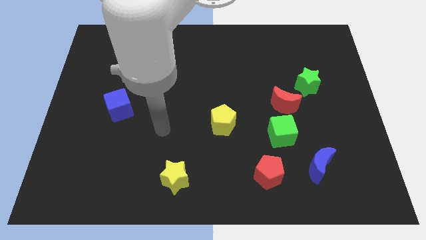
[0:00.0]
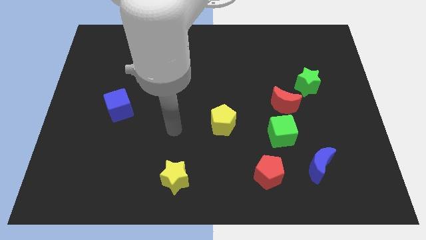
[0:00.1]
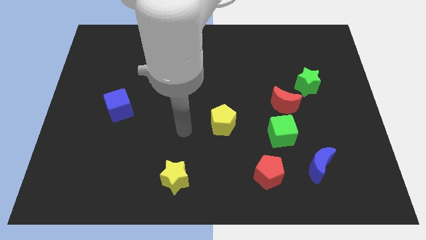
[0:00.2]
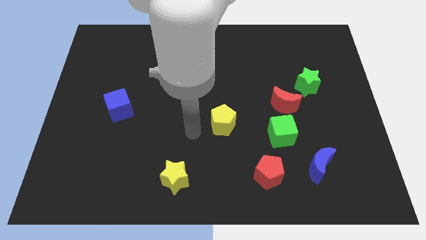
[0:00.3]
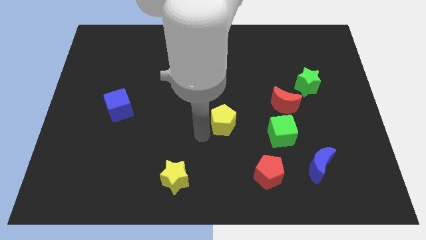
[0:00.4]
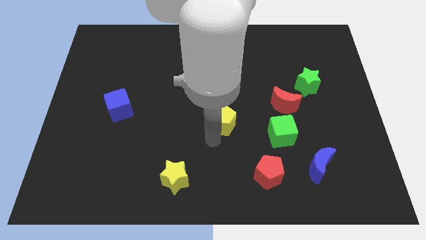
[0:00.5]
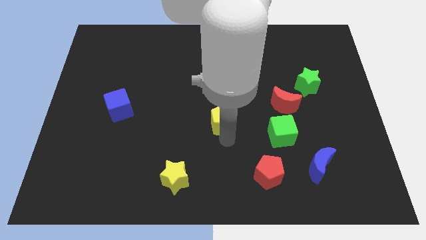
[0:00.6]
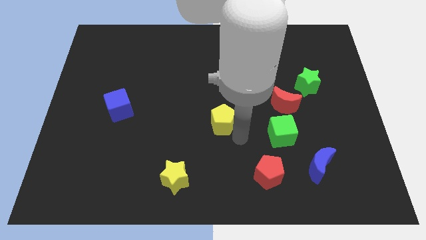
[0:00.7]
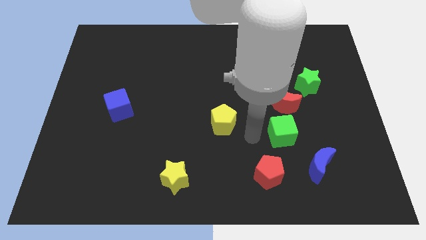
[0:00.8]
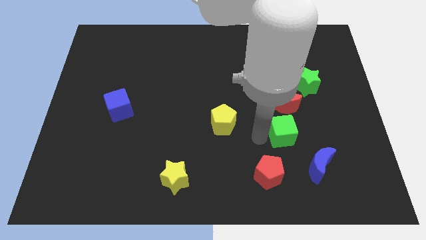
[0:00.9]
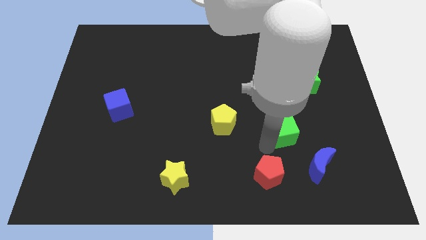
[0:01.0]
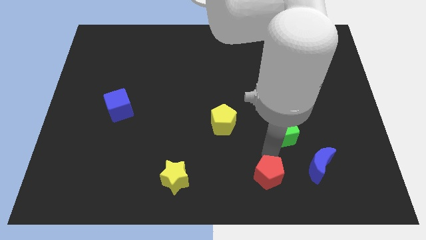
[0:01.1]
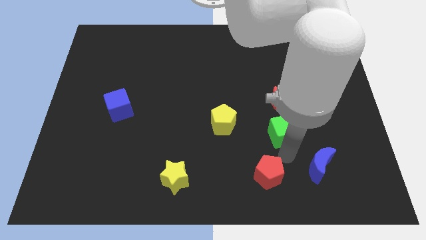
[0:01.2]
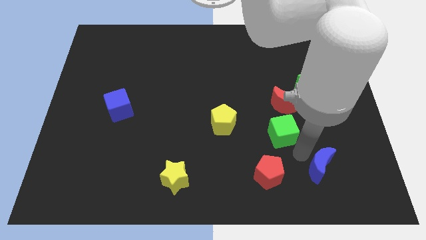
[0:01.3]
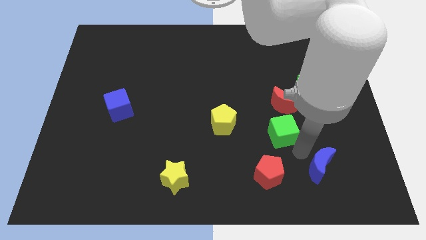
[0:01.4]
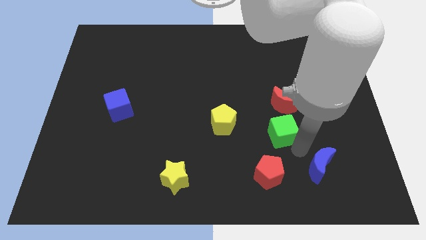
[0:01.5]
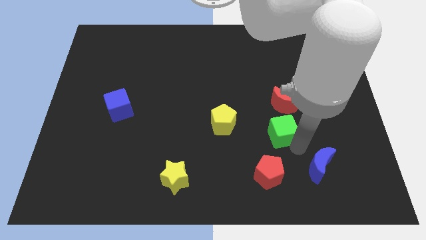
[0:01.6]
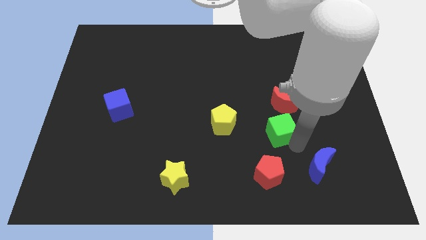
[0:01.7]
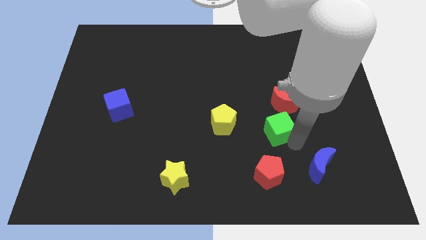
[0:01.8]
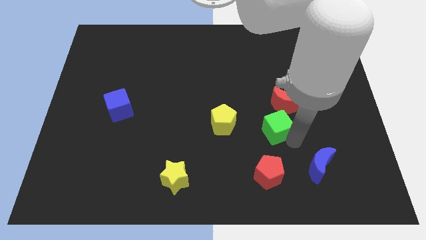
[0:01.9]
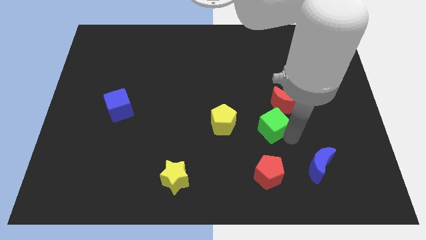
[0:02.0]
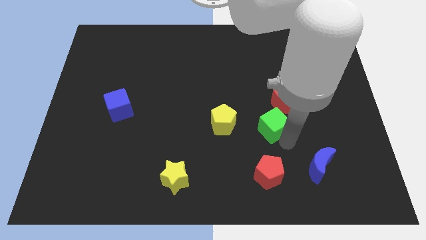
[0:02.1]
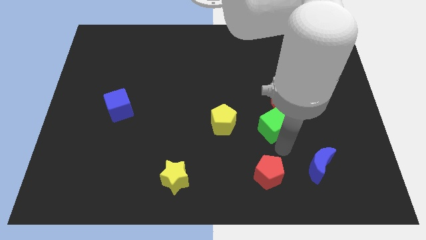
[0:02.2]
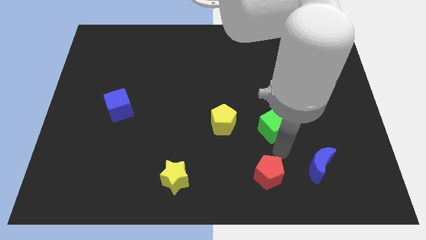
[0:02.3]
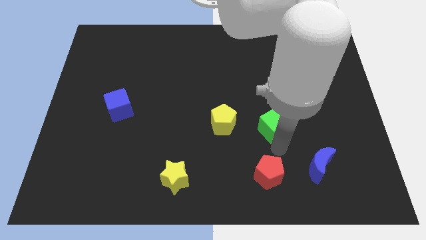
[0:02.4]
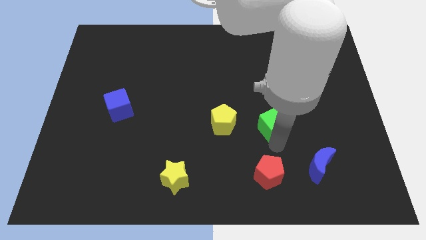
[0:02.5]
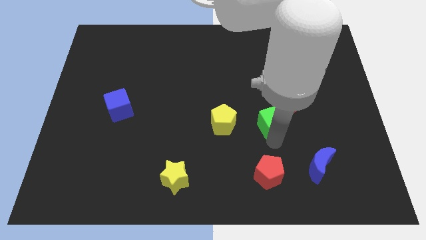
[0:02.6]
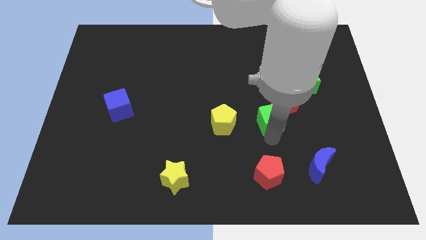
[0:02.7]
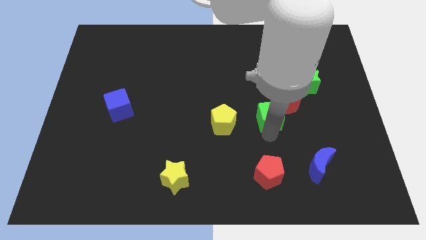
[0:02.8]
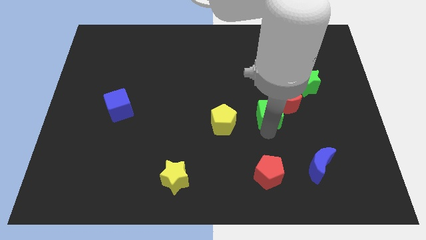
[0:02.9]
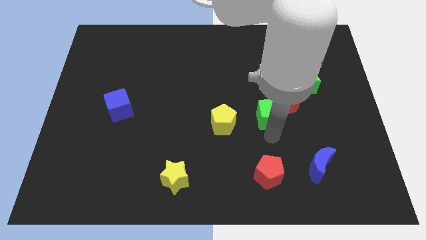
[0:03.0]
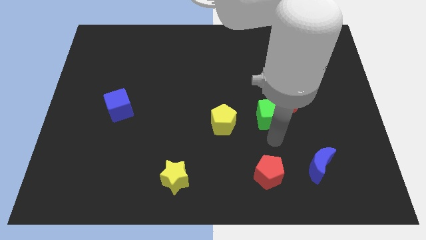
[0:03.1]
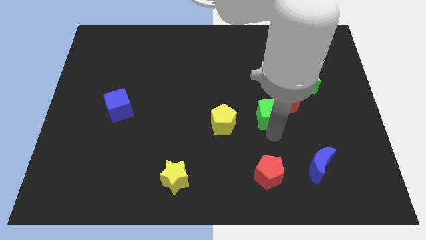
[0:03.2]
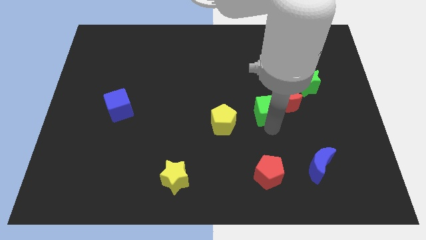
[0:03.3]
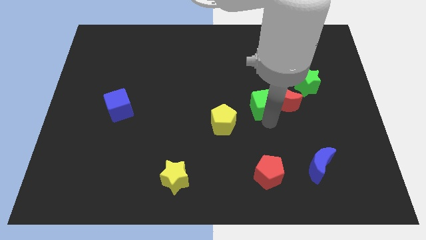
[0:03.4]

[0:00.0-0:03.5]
slightly push the green cube upwards

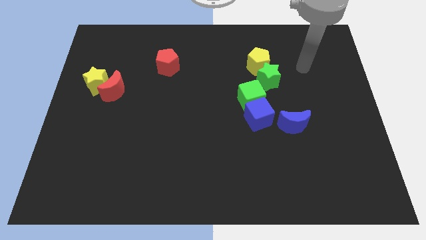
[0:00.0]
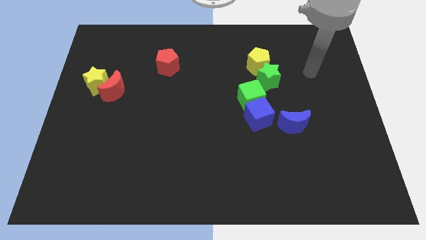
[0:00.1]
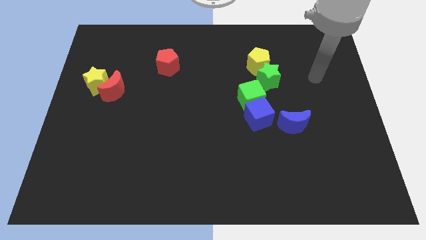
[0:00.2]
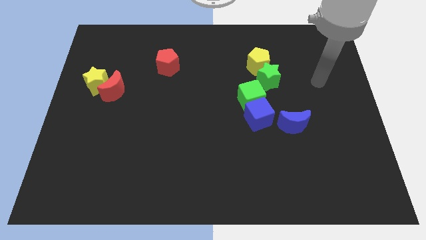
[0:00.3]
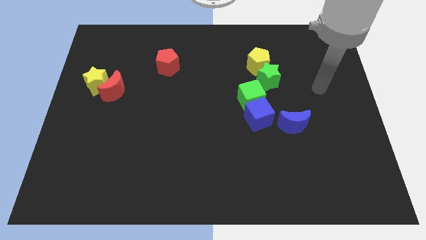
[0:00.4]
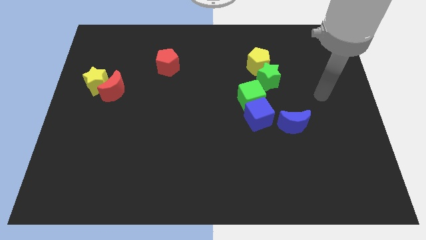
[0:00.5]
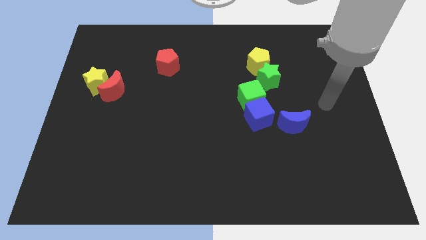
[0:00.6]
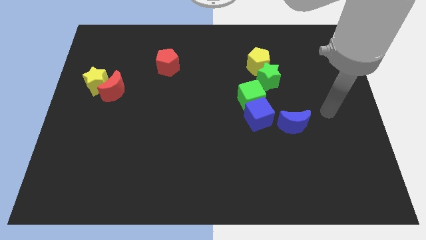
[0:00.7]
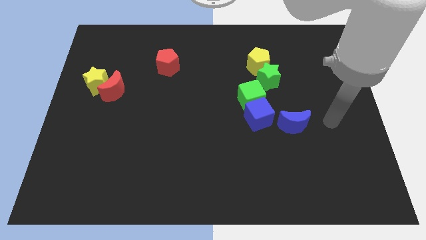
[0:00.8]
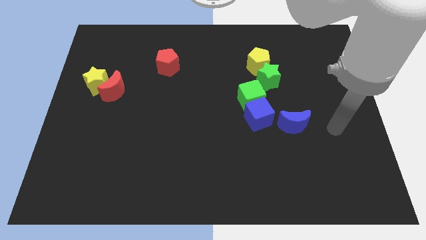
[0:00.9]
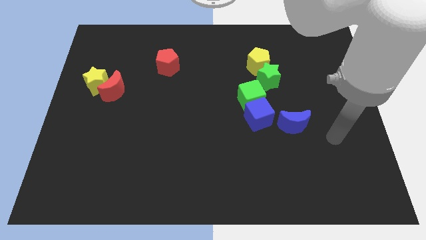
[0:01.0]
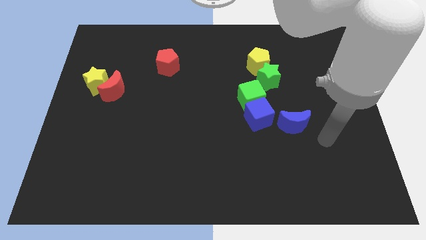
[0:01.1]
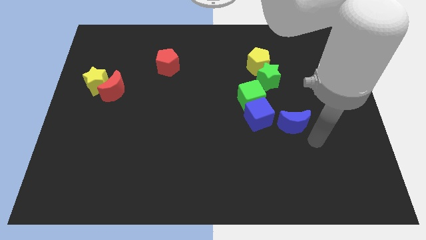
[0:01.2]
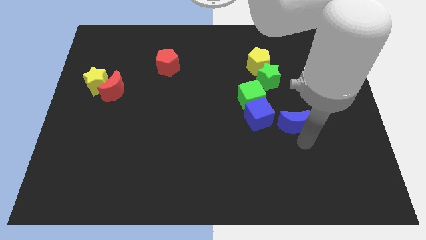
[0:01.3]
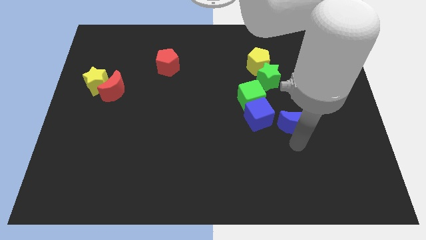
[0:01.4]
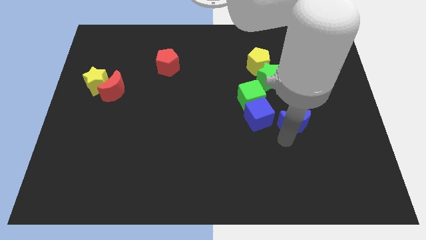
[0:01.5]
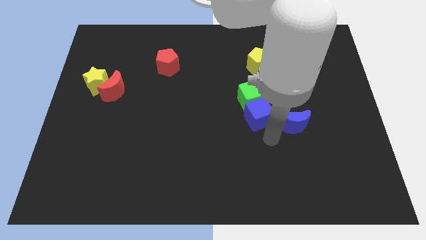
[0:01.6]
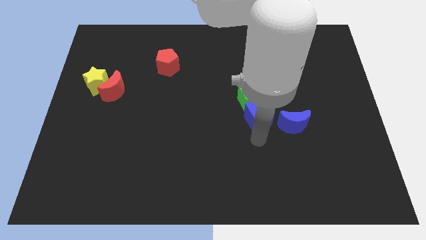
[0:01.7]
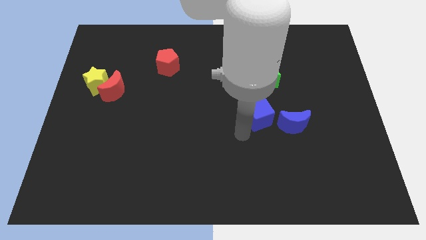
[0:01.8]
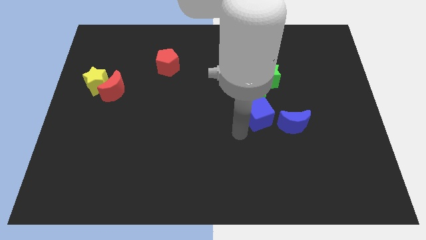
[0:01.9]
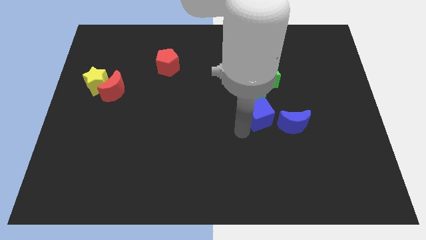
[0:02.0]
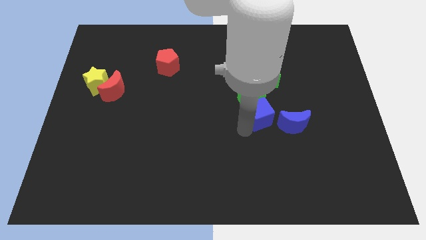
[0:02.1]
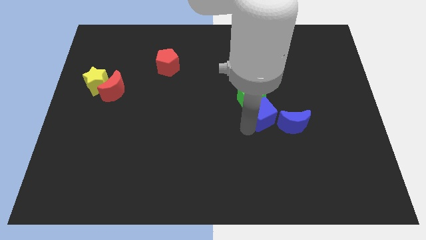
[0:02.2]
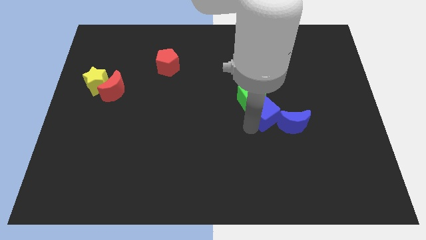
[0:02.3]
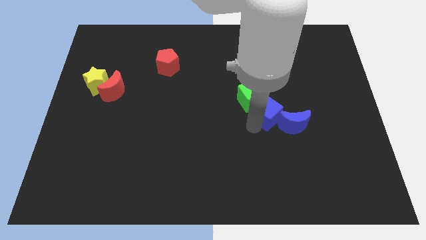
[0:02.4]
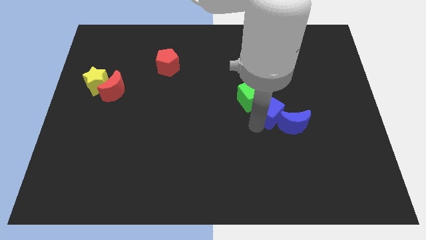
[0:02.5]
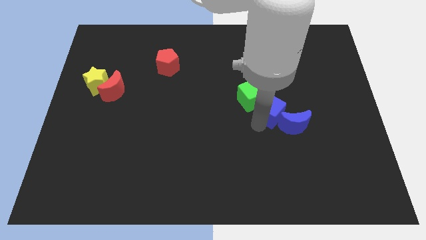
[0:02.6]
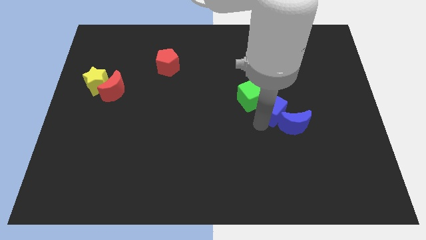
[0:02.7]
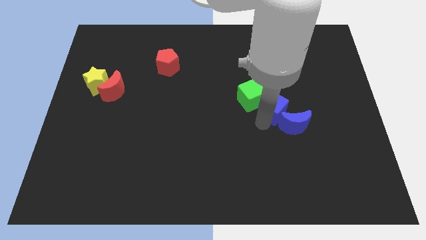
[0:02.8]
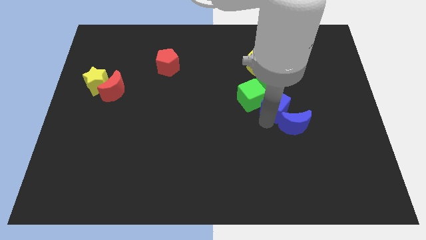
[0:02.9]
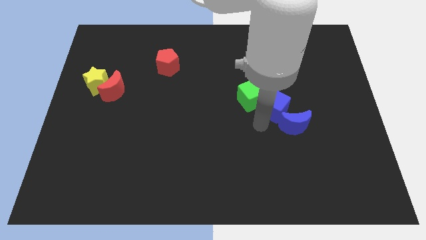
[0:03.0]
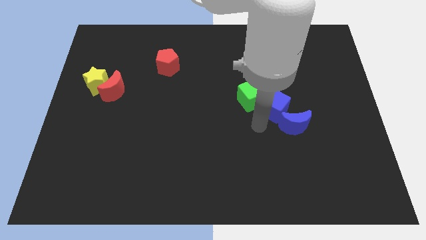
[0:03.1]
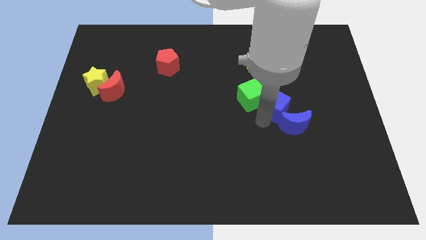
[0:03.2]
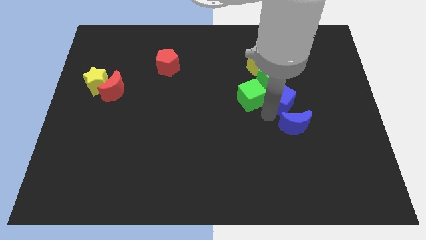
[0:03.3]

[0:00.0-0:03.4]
slide the blue cube slightly diagonally up and to the right

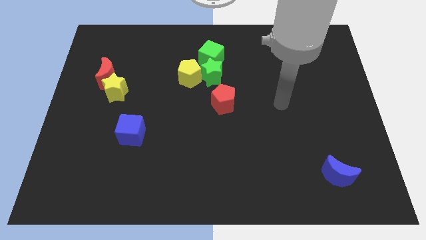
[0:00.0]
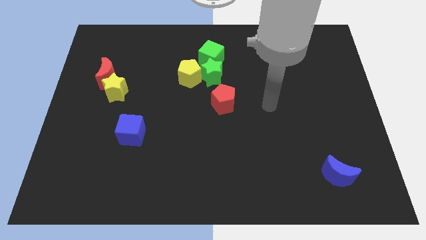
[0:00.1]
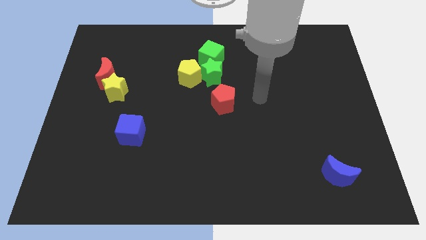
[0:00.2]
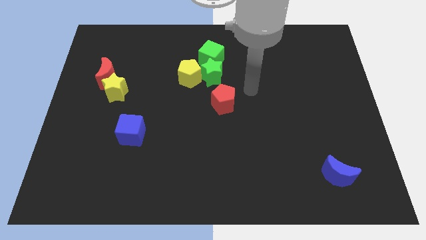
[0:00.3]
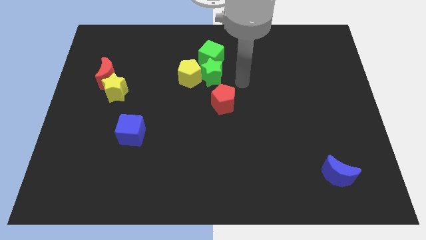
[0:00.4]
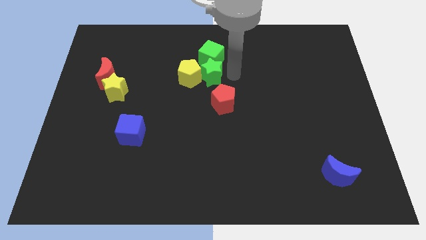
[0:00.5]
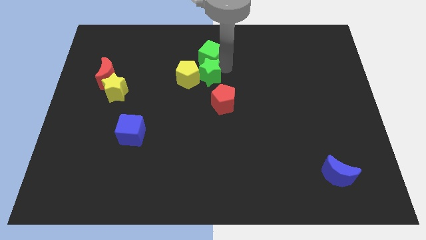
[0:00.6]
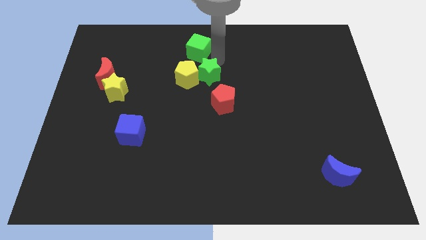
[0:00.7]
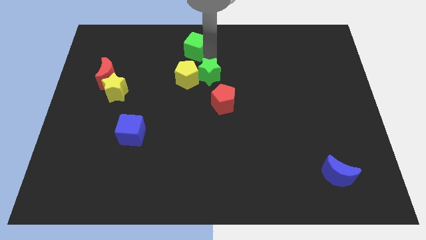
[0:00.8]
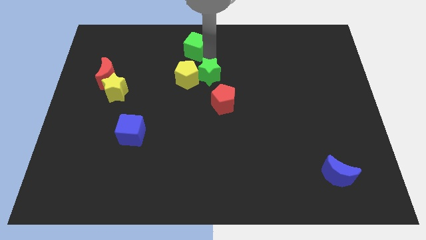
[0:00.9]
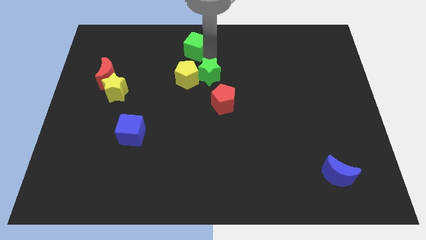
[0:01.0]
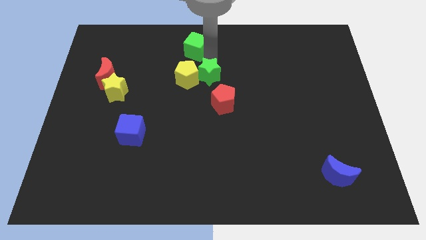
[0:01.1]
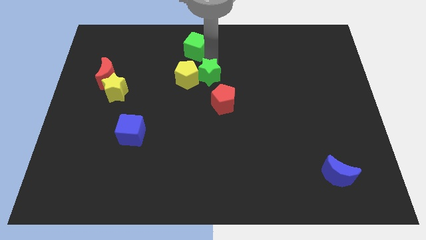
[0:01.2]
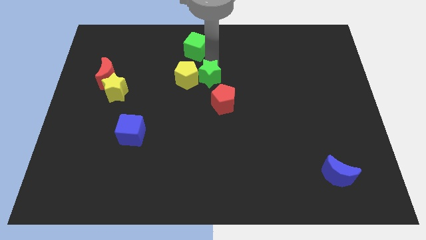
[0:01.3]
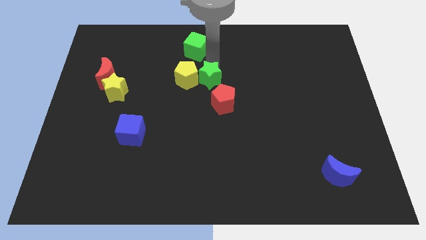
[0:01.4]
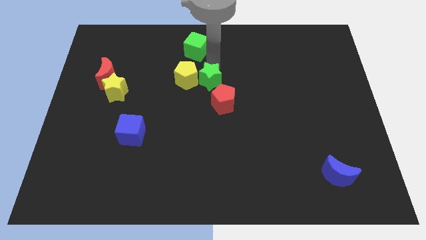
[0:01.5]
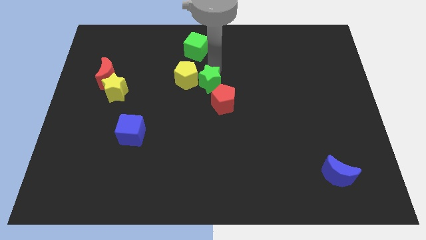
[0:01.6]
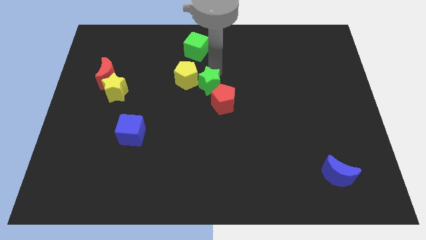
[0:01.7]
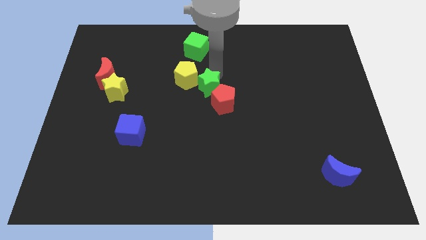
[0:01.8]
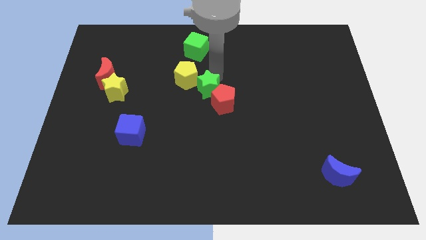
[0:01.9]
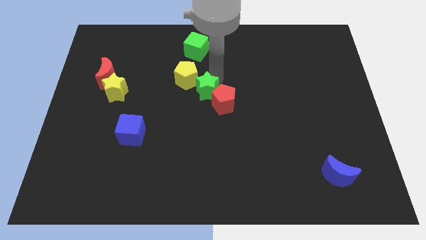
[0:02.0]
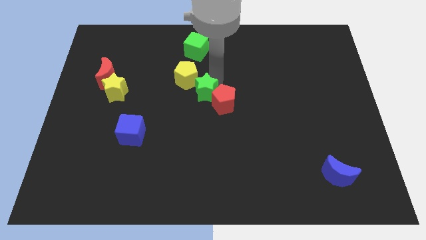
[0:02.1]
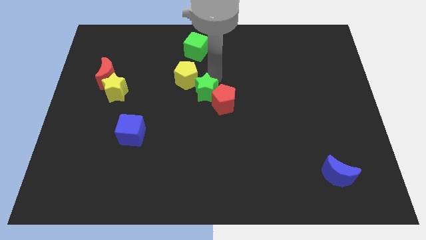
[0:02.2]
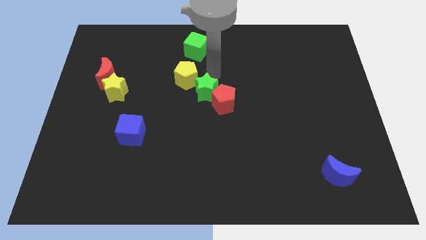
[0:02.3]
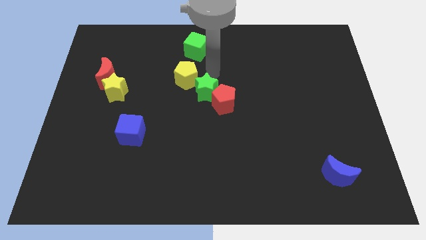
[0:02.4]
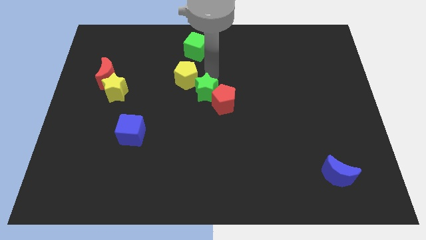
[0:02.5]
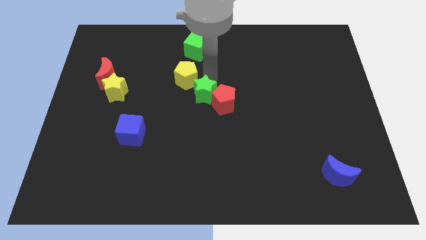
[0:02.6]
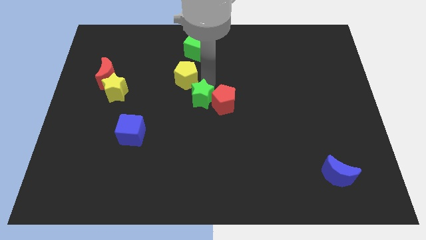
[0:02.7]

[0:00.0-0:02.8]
move the green star down slightly
